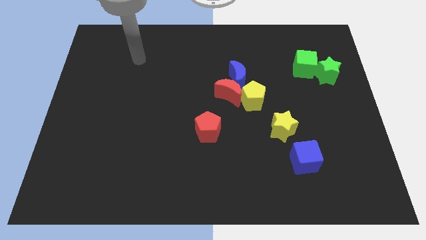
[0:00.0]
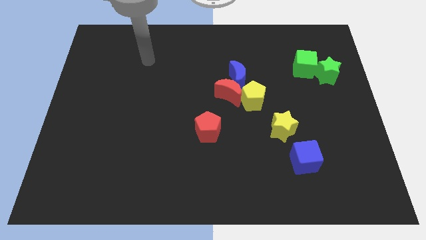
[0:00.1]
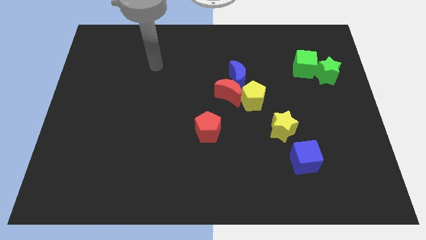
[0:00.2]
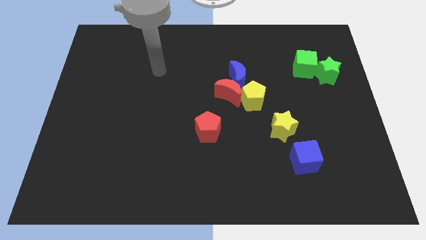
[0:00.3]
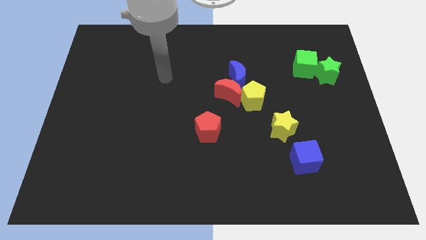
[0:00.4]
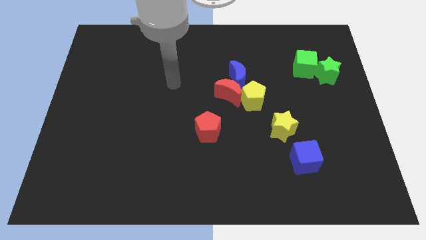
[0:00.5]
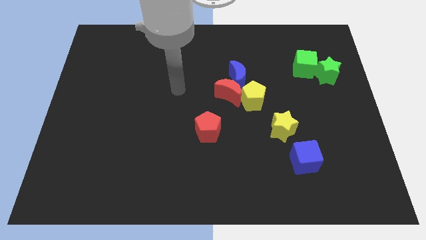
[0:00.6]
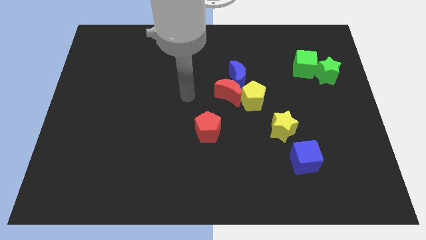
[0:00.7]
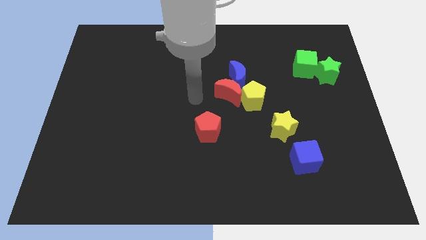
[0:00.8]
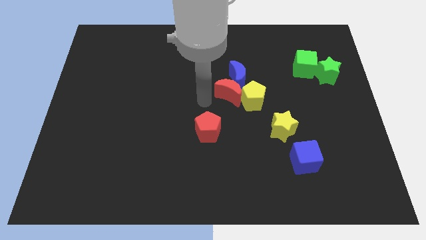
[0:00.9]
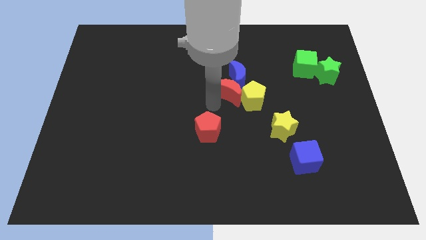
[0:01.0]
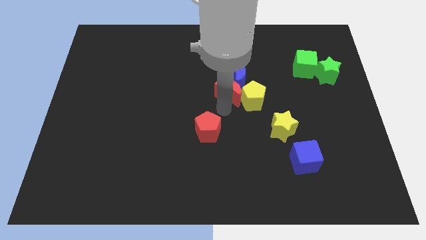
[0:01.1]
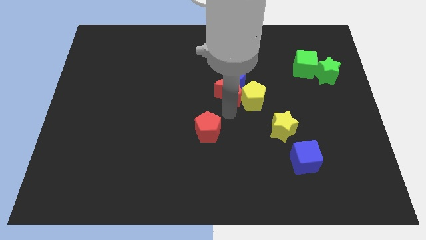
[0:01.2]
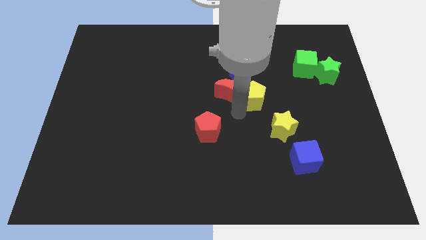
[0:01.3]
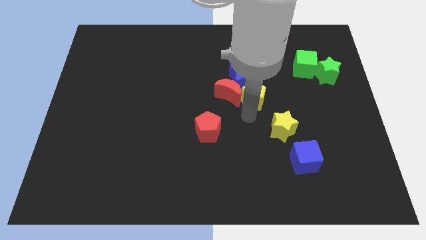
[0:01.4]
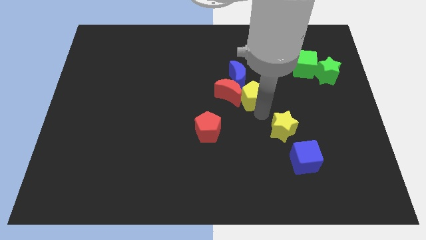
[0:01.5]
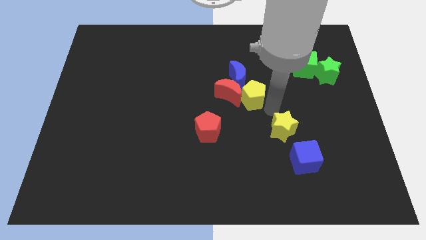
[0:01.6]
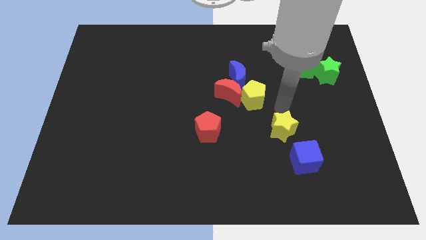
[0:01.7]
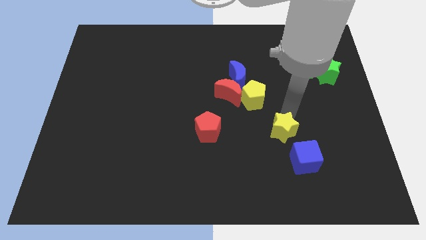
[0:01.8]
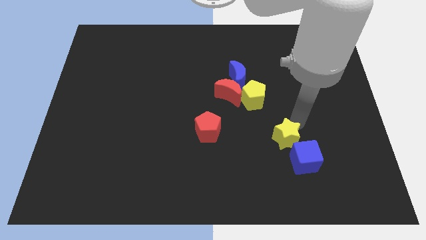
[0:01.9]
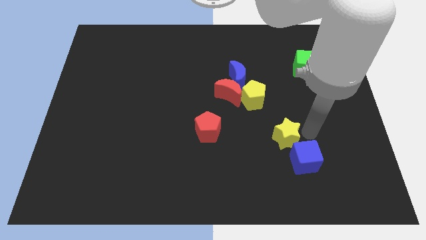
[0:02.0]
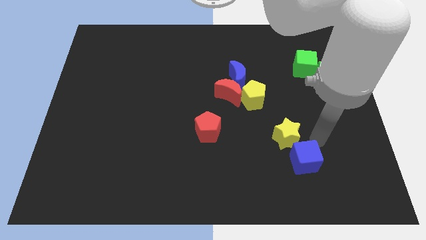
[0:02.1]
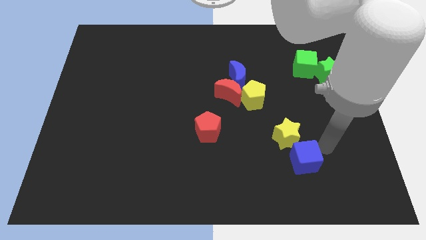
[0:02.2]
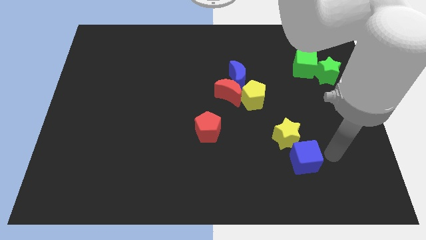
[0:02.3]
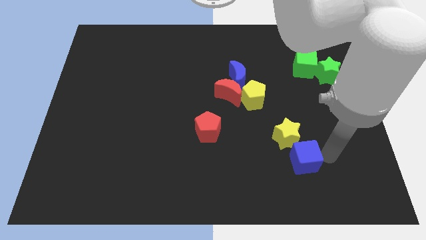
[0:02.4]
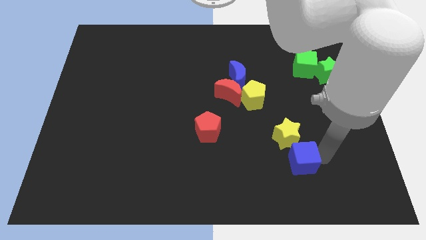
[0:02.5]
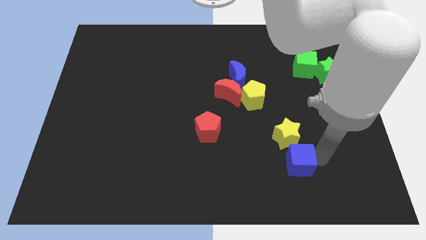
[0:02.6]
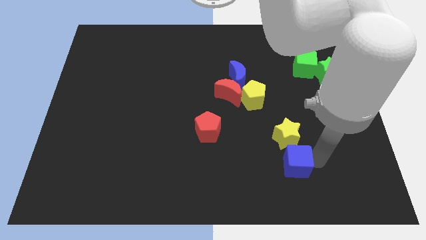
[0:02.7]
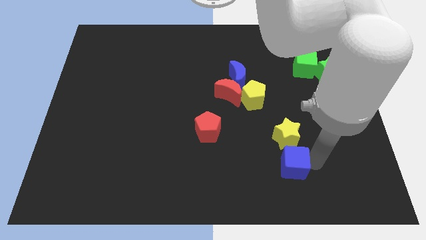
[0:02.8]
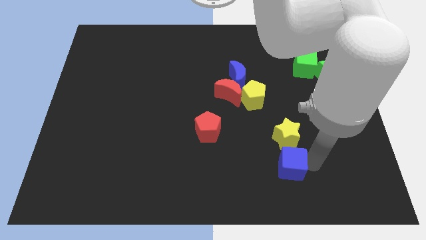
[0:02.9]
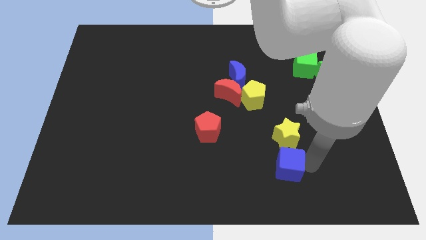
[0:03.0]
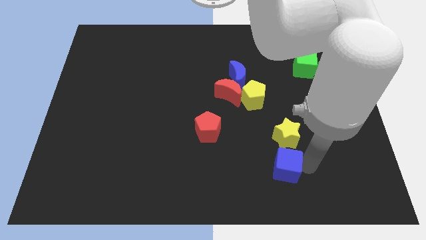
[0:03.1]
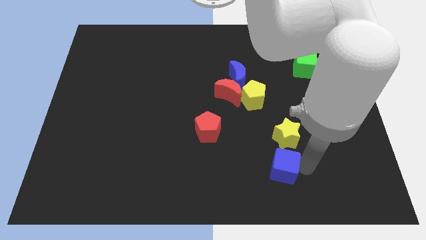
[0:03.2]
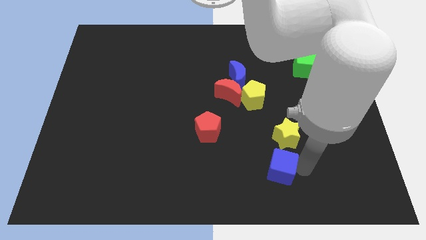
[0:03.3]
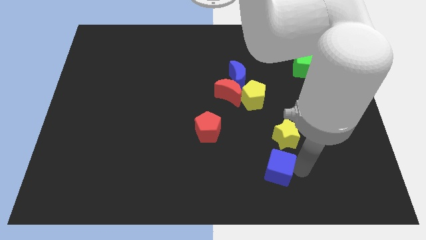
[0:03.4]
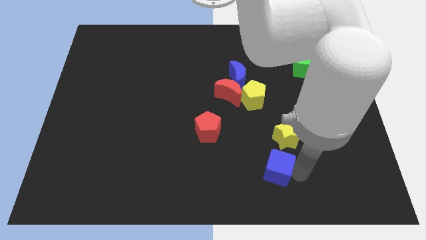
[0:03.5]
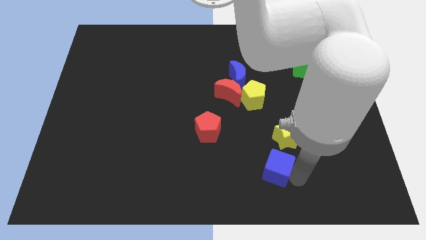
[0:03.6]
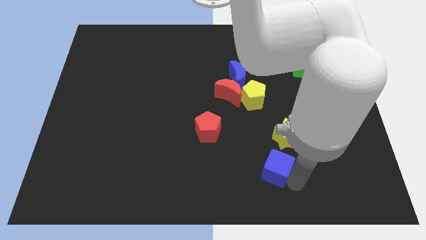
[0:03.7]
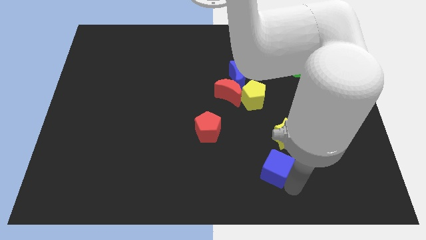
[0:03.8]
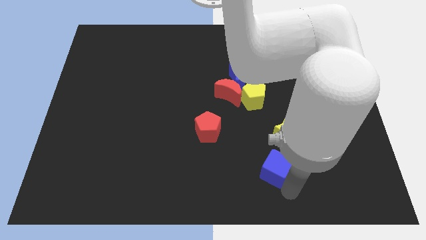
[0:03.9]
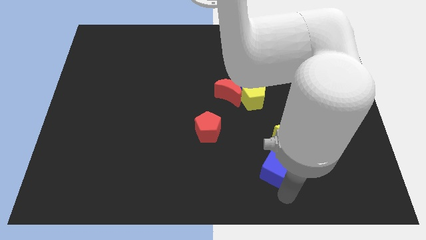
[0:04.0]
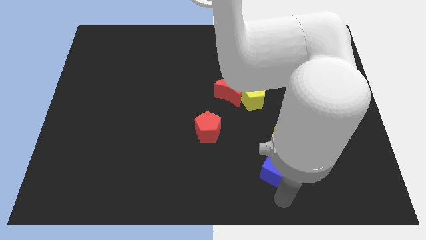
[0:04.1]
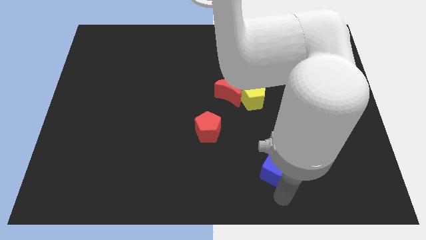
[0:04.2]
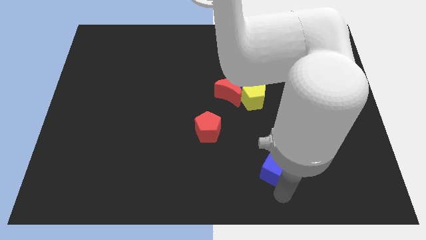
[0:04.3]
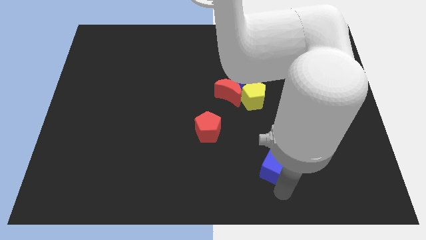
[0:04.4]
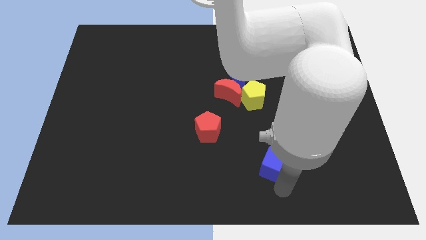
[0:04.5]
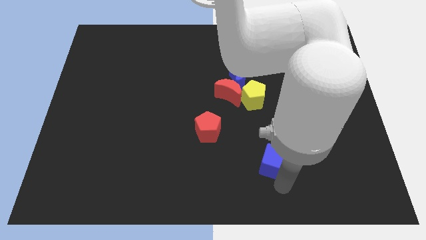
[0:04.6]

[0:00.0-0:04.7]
move the blue cube left a bit

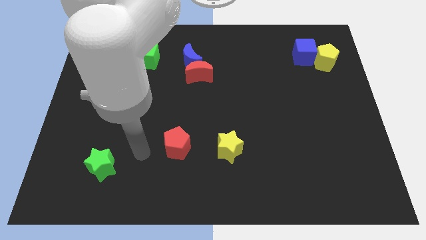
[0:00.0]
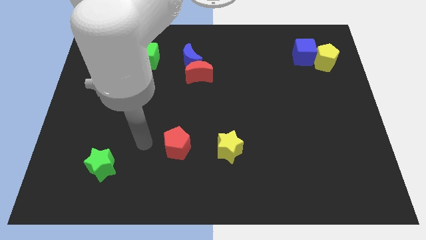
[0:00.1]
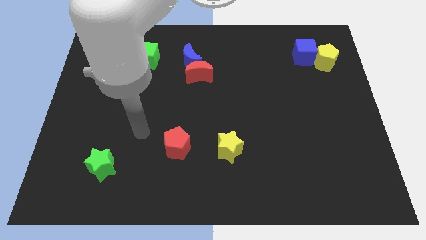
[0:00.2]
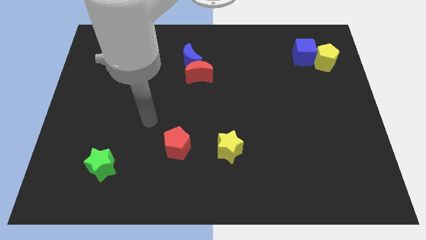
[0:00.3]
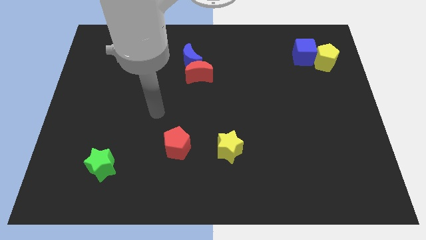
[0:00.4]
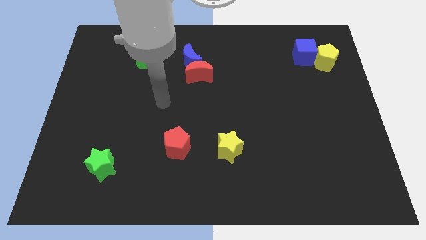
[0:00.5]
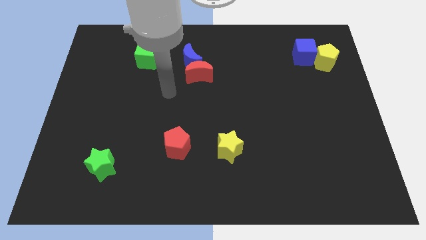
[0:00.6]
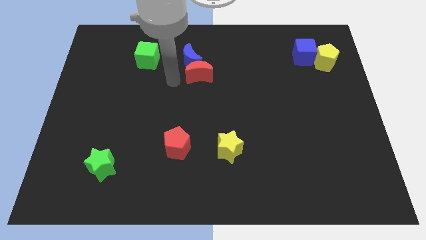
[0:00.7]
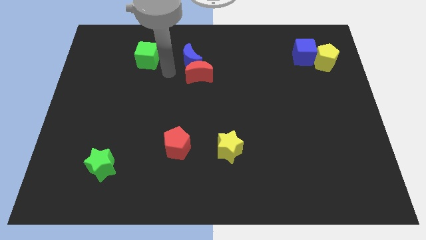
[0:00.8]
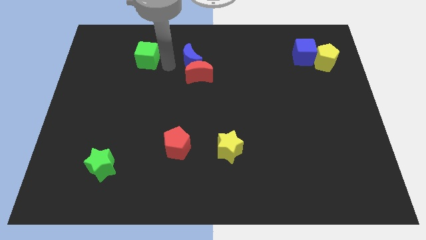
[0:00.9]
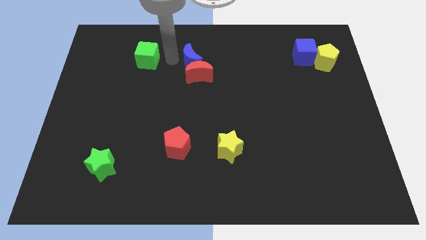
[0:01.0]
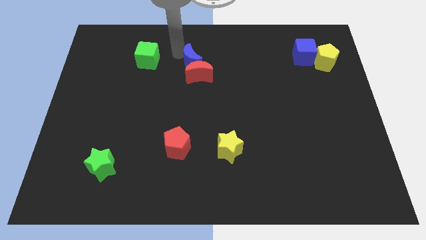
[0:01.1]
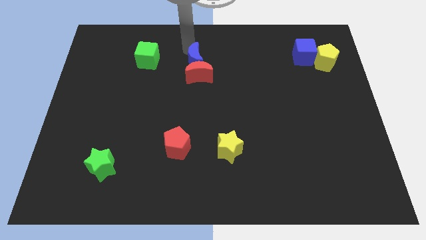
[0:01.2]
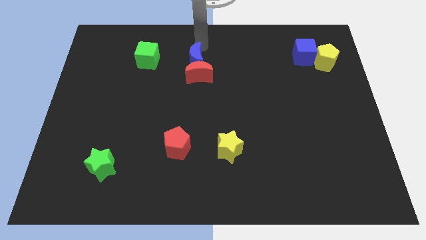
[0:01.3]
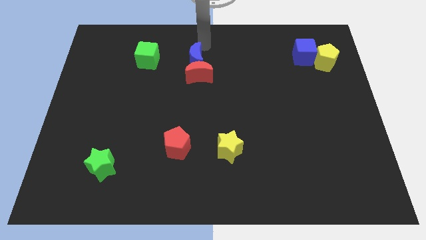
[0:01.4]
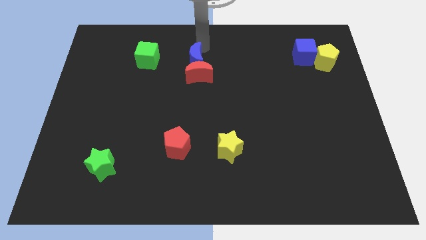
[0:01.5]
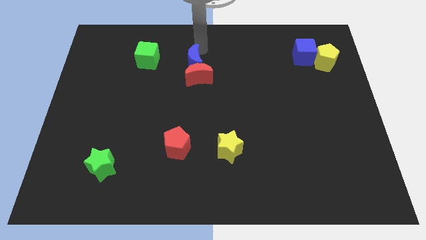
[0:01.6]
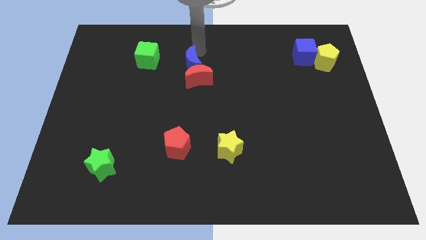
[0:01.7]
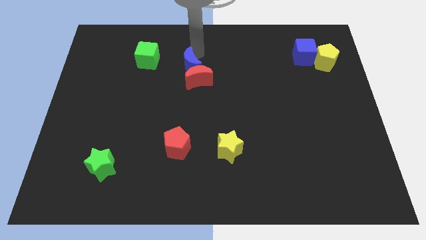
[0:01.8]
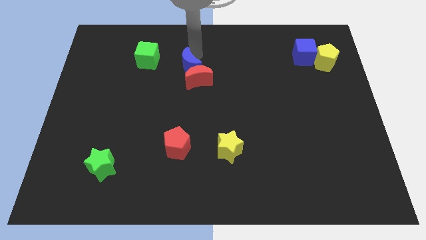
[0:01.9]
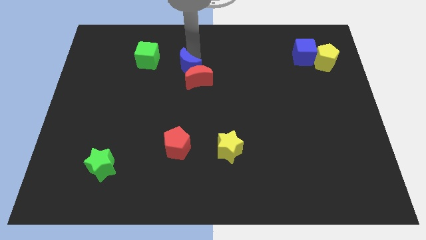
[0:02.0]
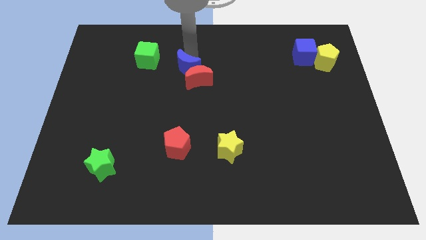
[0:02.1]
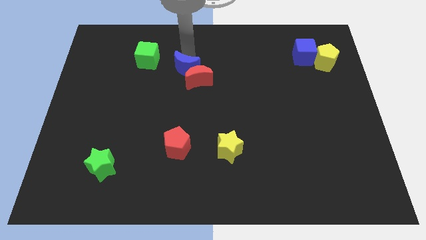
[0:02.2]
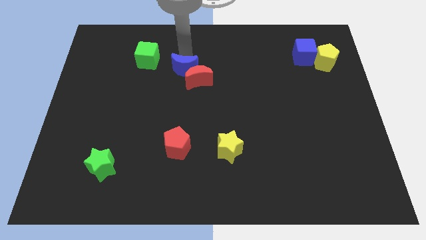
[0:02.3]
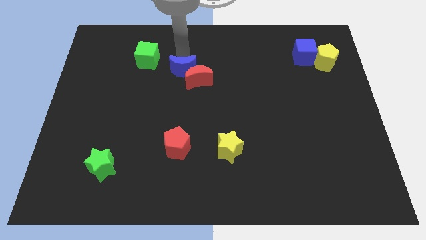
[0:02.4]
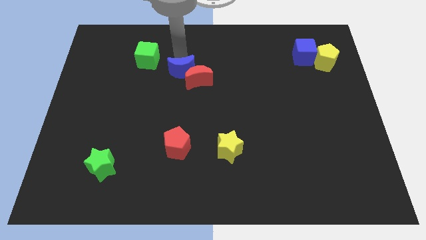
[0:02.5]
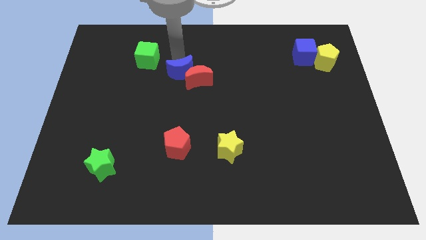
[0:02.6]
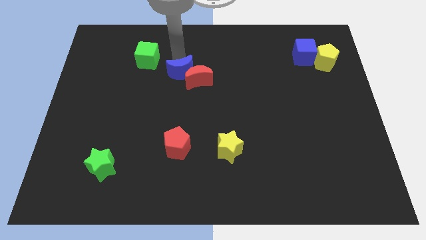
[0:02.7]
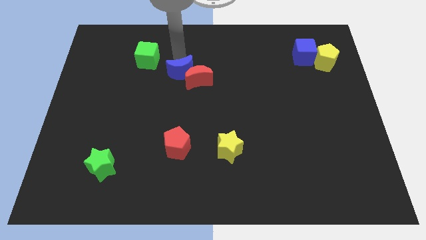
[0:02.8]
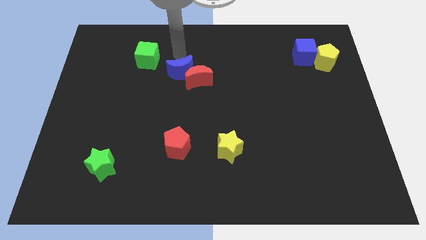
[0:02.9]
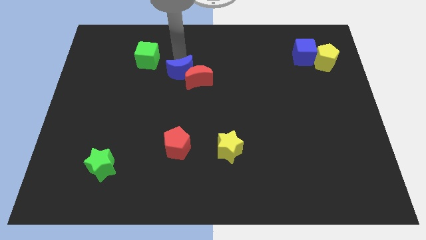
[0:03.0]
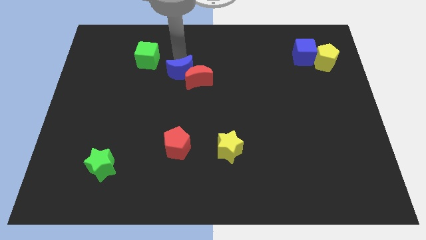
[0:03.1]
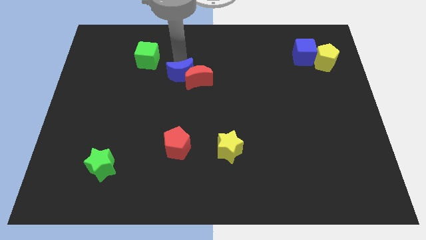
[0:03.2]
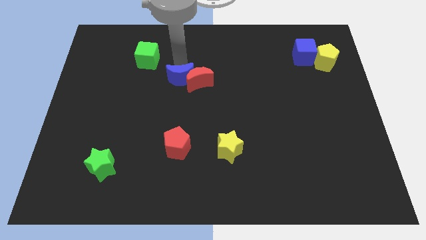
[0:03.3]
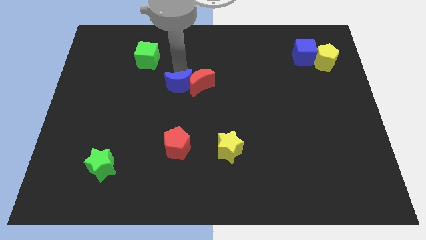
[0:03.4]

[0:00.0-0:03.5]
move the blue moon a little bit down
